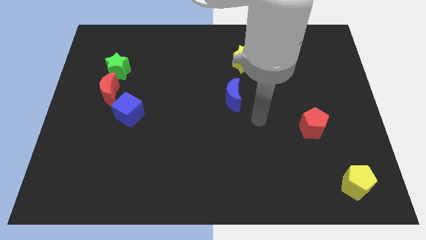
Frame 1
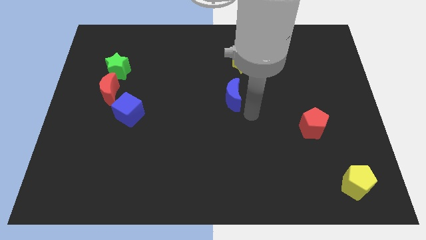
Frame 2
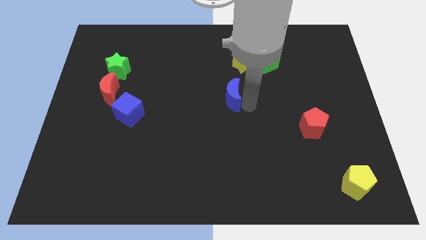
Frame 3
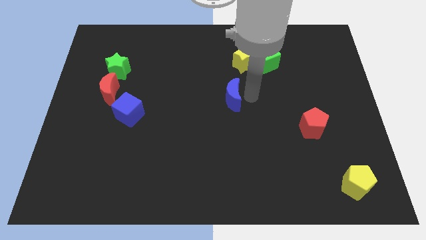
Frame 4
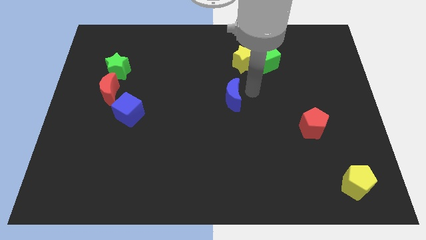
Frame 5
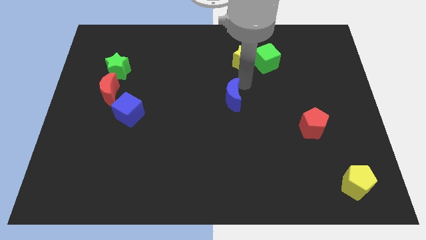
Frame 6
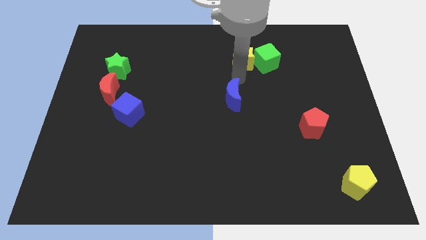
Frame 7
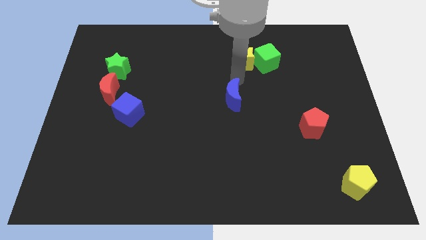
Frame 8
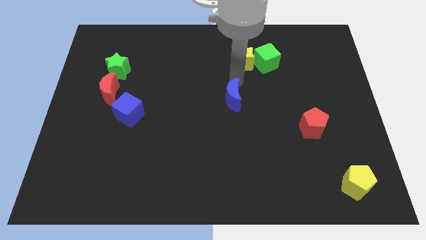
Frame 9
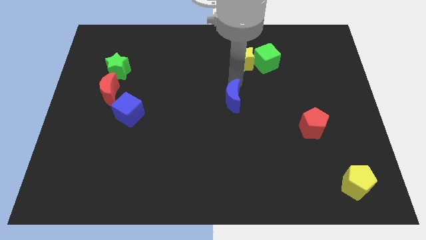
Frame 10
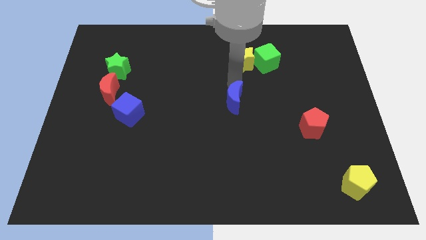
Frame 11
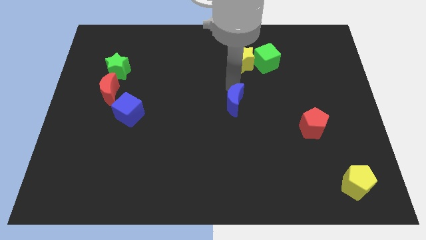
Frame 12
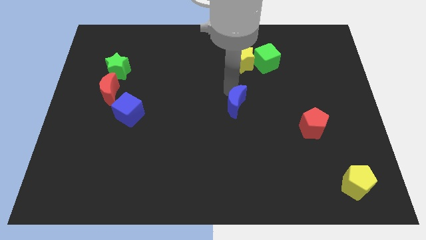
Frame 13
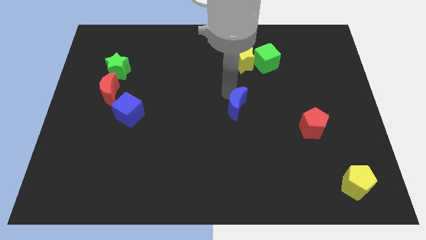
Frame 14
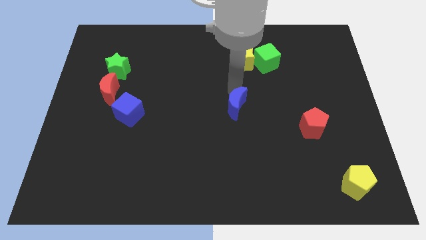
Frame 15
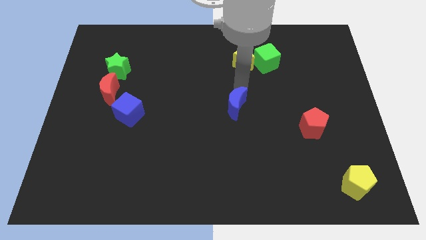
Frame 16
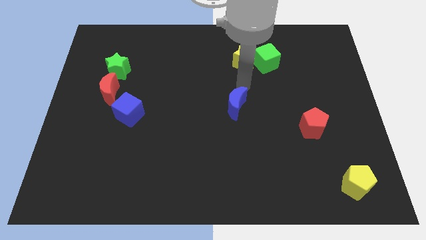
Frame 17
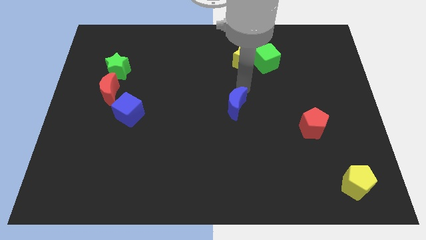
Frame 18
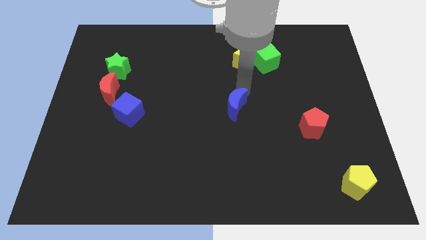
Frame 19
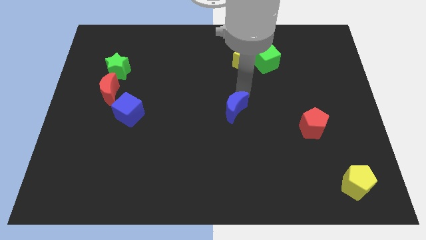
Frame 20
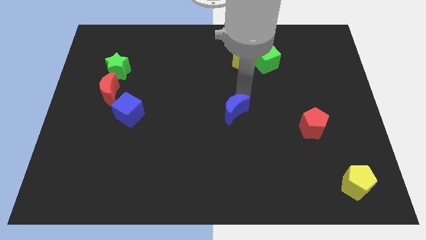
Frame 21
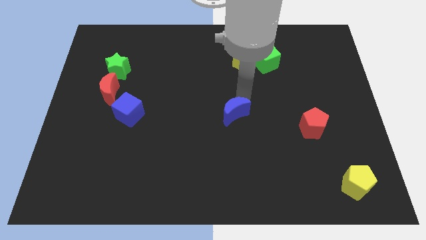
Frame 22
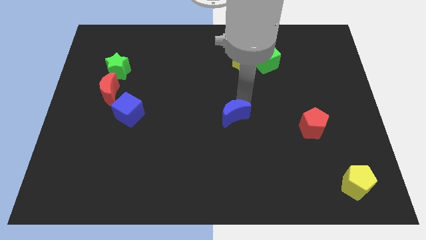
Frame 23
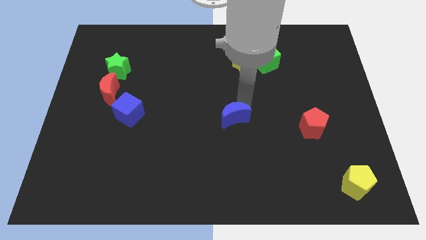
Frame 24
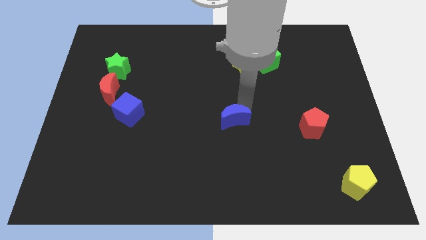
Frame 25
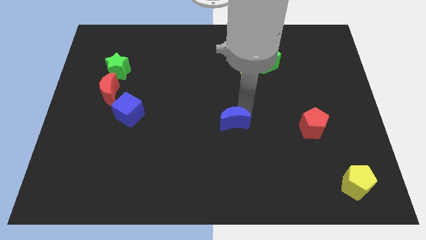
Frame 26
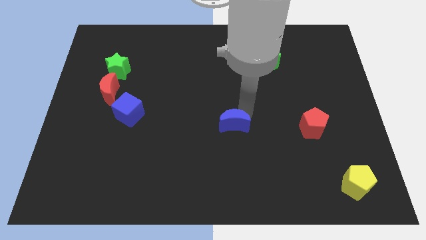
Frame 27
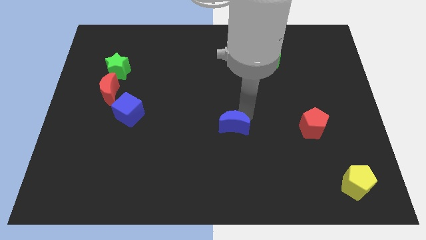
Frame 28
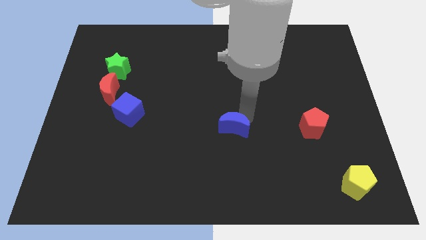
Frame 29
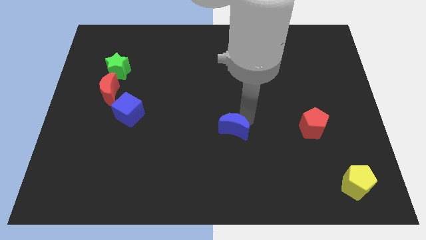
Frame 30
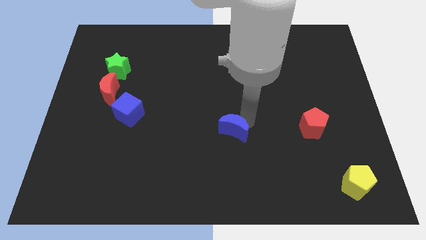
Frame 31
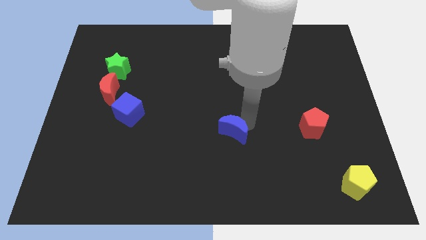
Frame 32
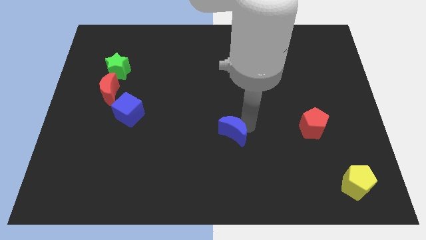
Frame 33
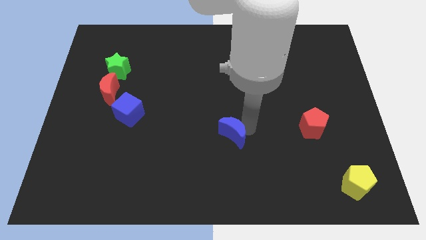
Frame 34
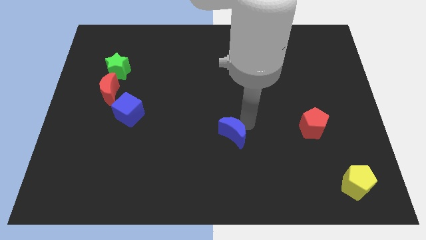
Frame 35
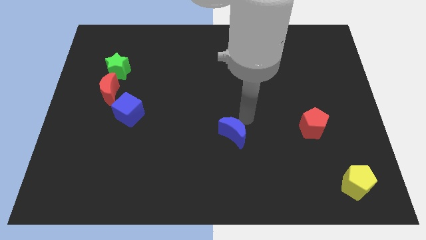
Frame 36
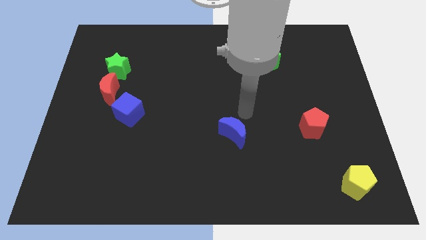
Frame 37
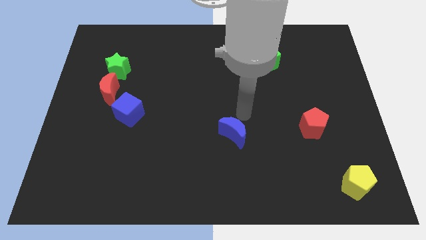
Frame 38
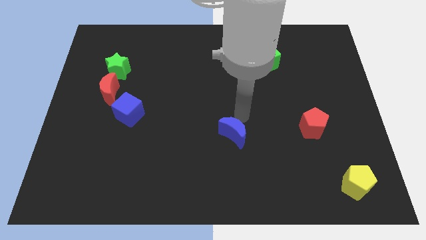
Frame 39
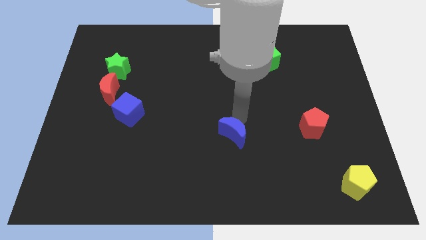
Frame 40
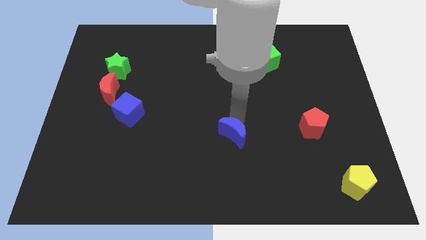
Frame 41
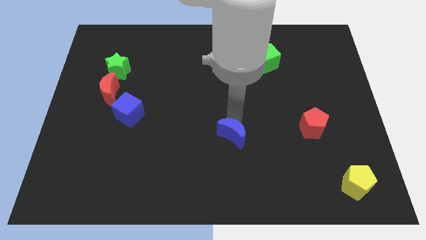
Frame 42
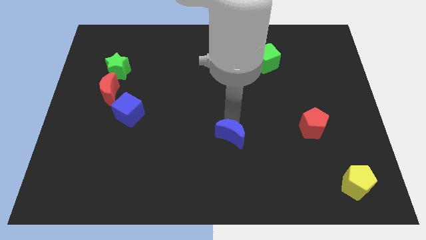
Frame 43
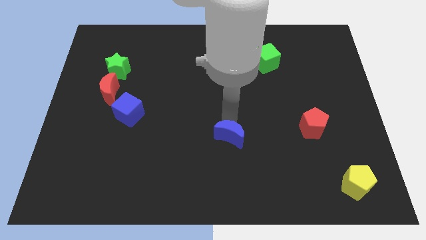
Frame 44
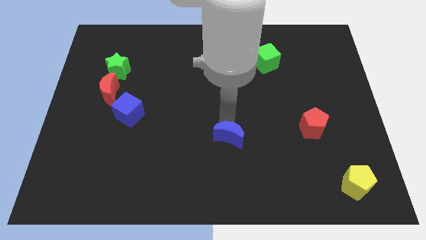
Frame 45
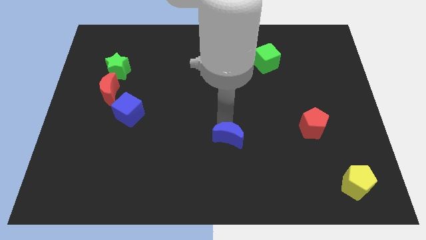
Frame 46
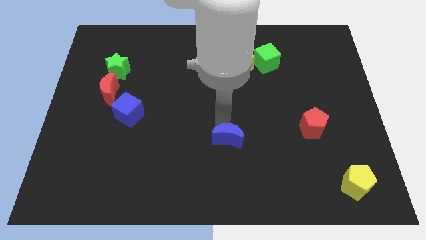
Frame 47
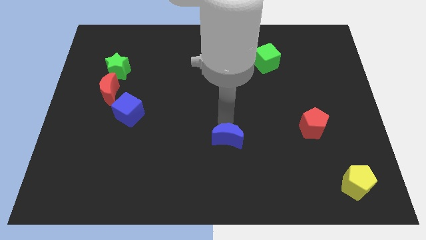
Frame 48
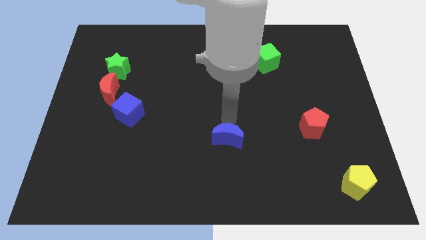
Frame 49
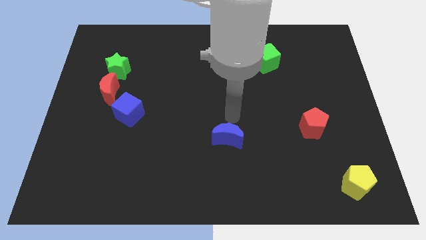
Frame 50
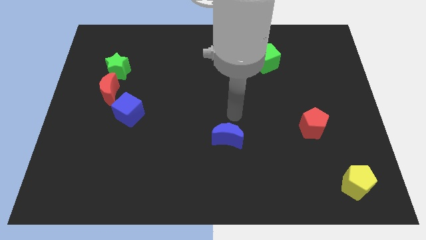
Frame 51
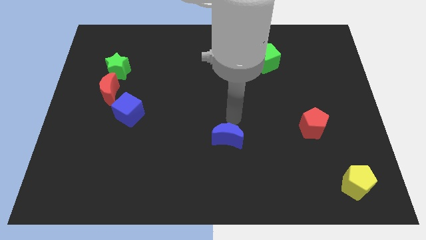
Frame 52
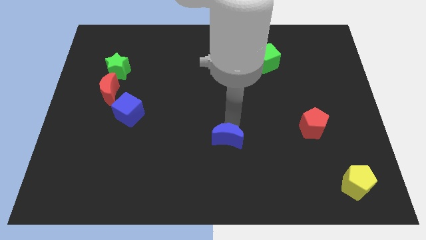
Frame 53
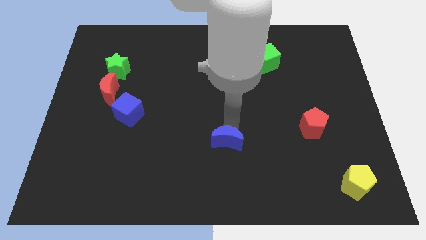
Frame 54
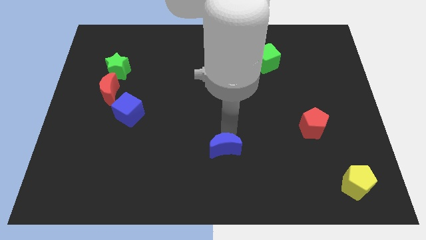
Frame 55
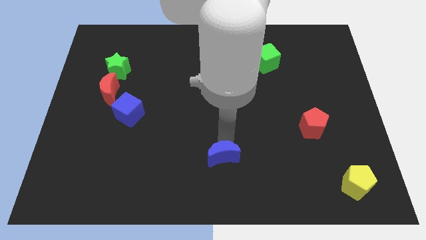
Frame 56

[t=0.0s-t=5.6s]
put the blue moon to the bottom
